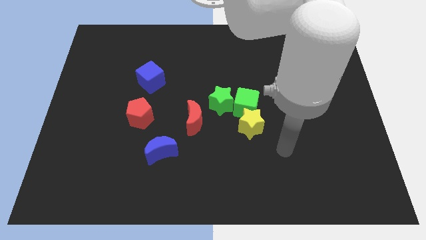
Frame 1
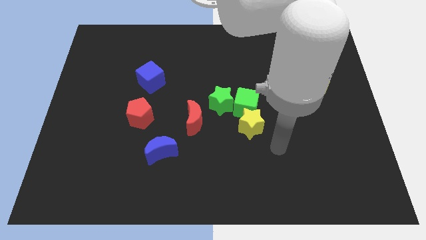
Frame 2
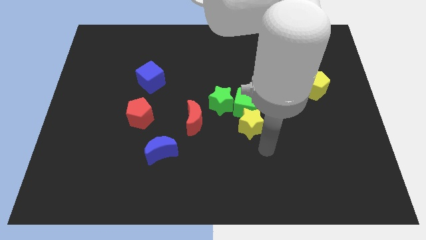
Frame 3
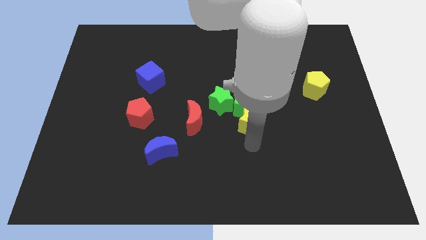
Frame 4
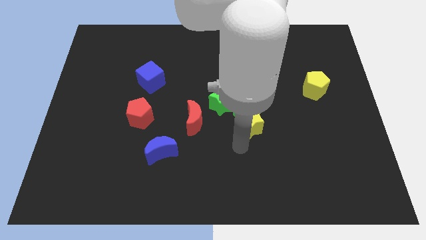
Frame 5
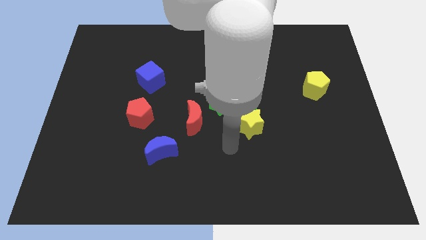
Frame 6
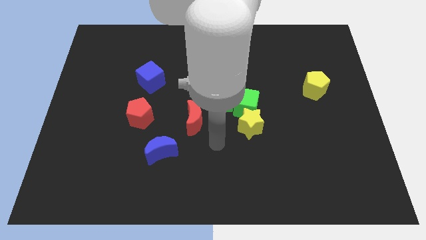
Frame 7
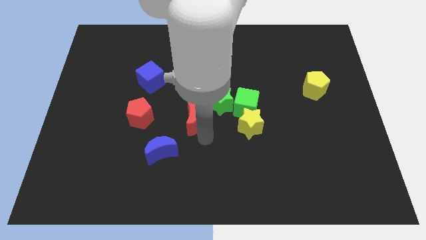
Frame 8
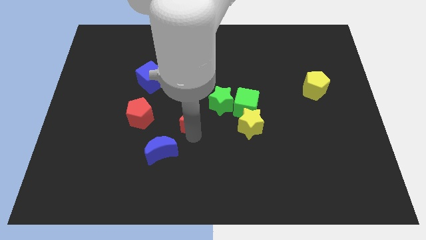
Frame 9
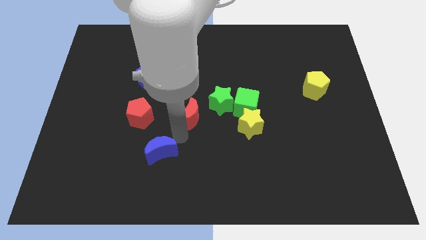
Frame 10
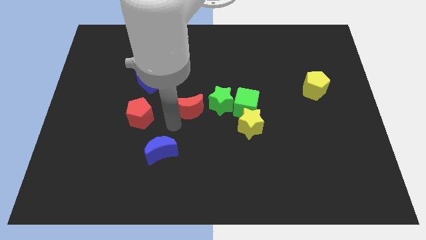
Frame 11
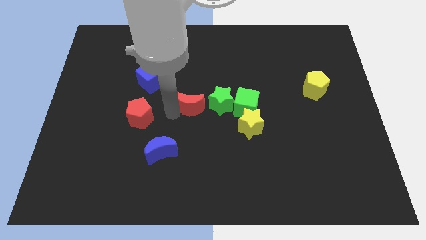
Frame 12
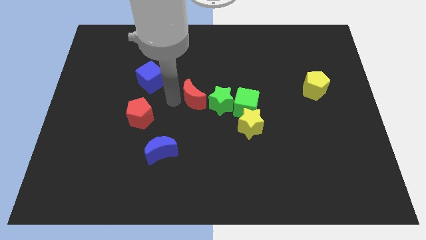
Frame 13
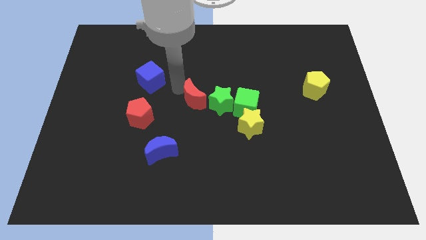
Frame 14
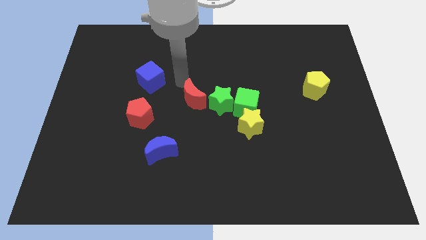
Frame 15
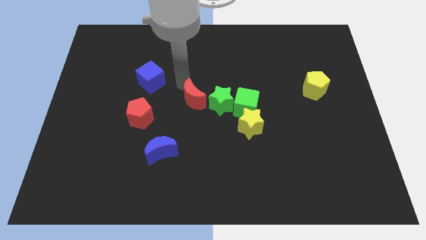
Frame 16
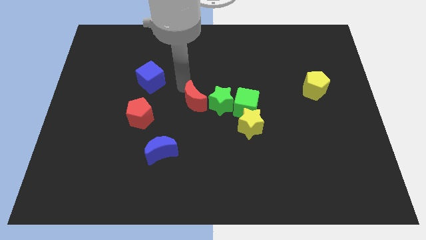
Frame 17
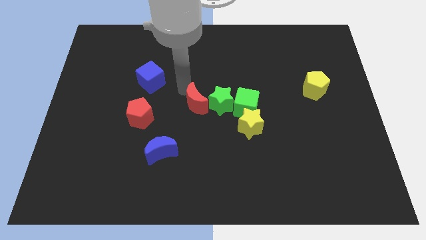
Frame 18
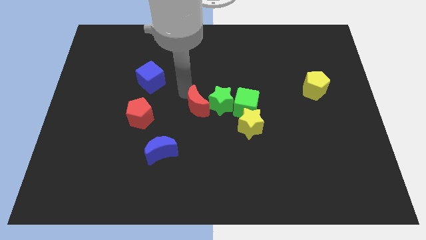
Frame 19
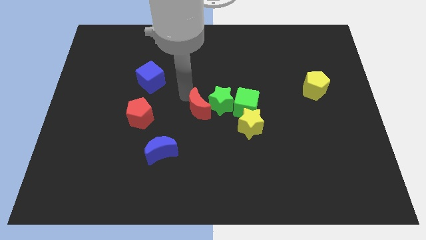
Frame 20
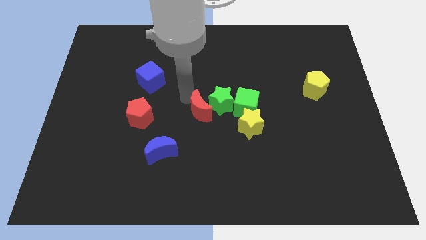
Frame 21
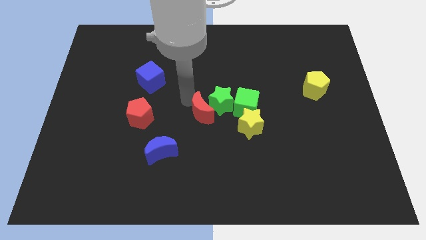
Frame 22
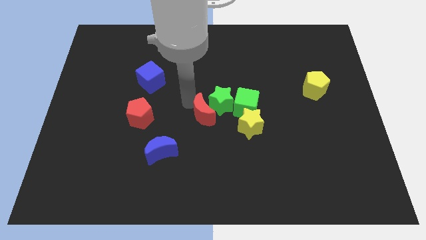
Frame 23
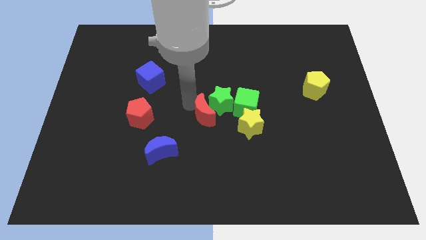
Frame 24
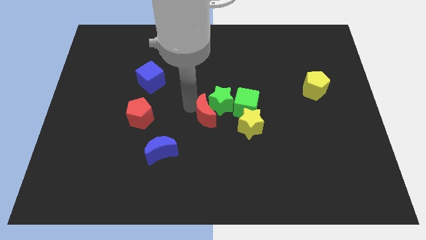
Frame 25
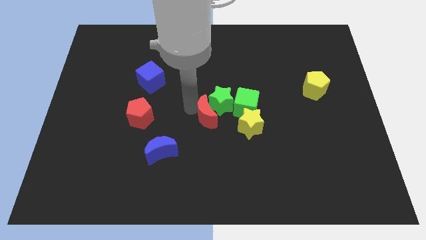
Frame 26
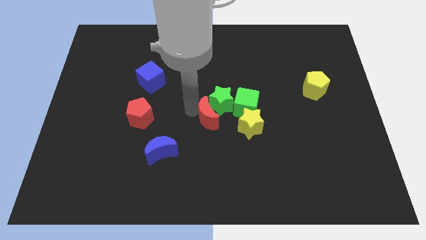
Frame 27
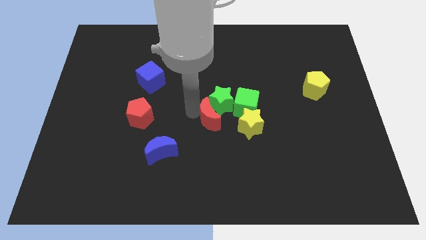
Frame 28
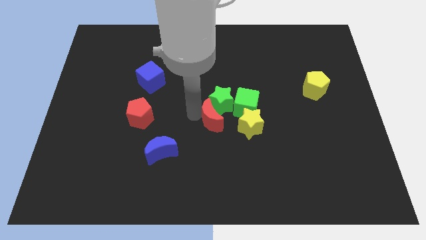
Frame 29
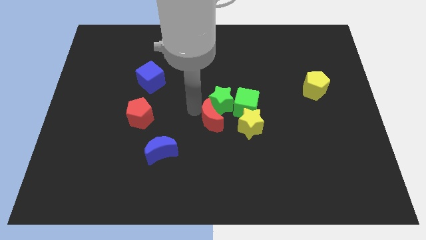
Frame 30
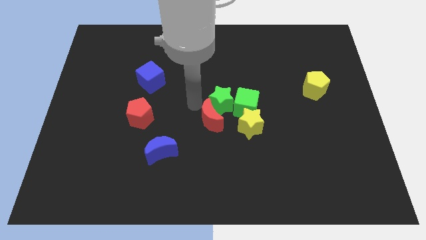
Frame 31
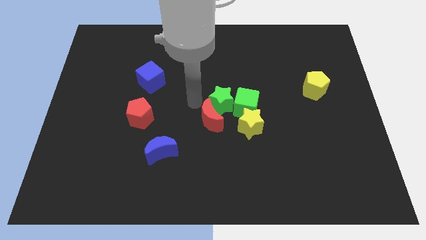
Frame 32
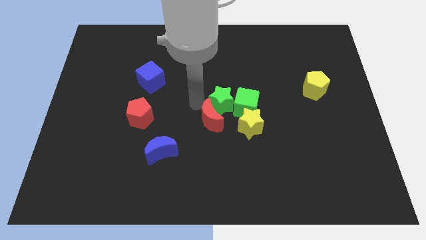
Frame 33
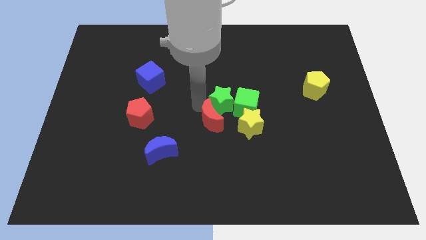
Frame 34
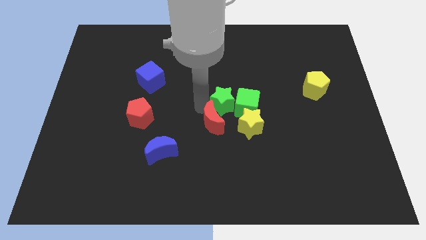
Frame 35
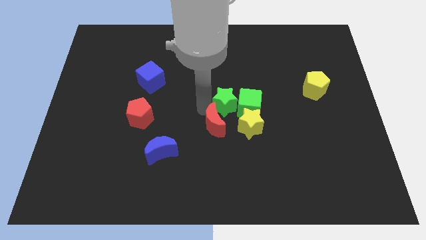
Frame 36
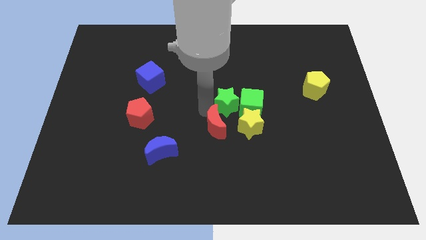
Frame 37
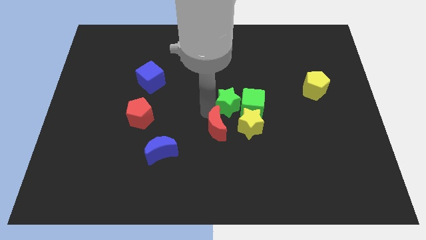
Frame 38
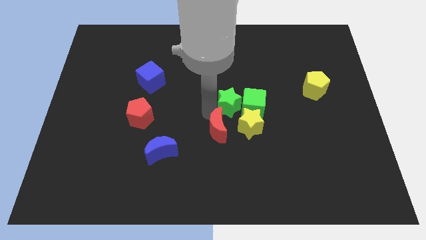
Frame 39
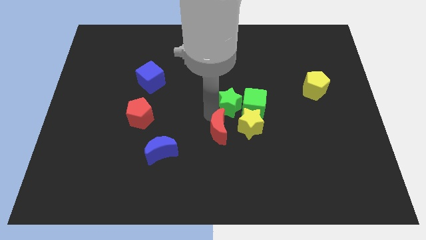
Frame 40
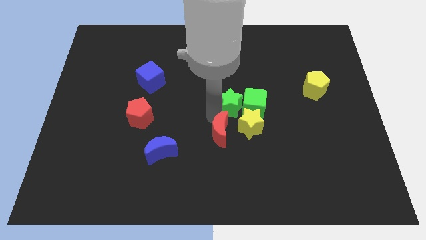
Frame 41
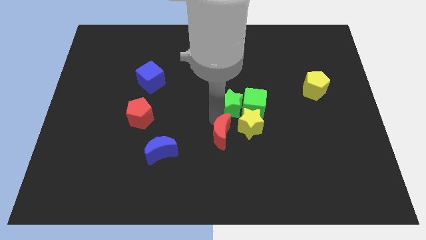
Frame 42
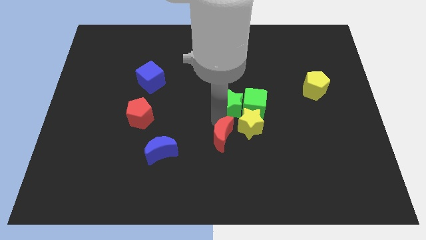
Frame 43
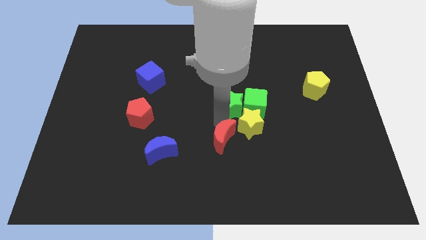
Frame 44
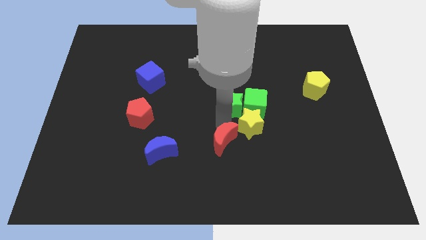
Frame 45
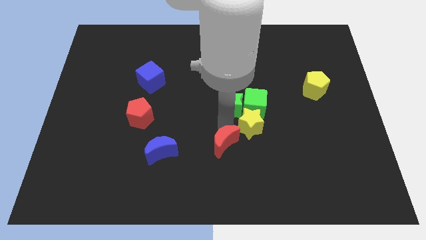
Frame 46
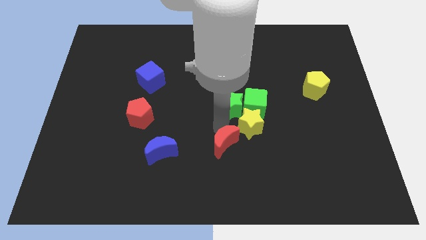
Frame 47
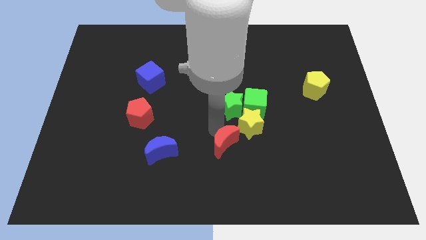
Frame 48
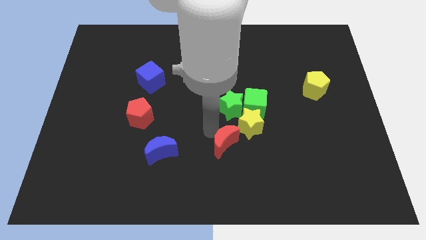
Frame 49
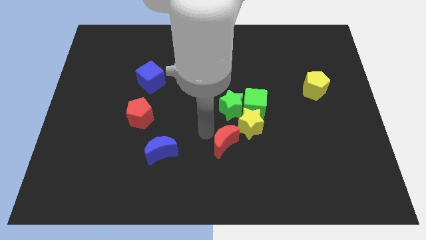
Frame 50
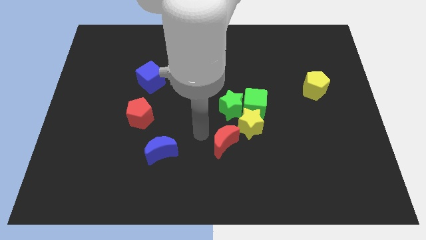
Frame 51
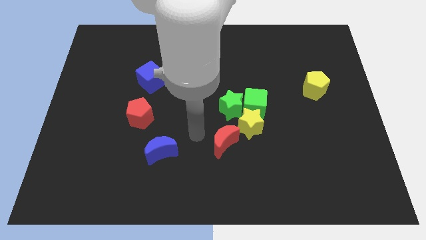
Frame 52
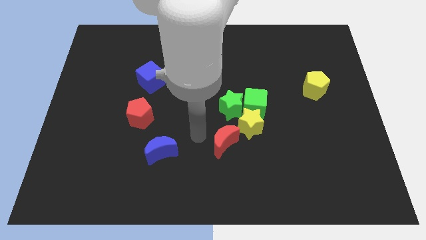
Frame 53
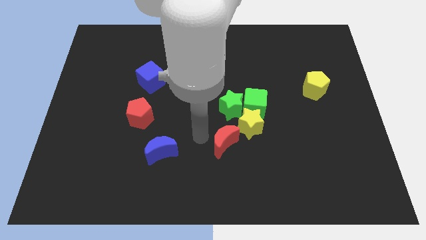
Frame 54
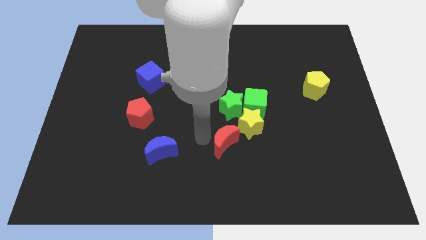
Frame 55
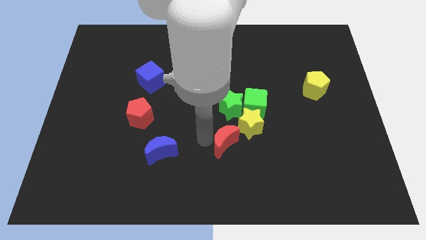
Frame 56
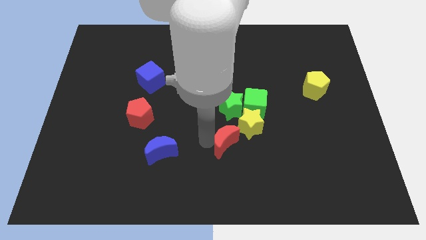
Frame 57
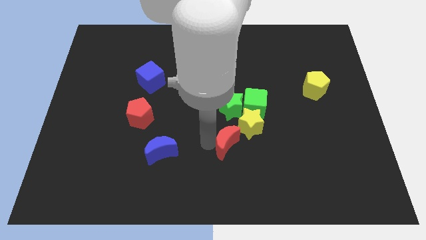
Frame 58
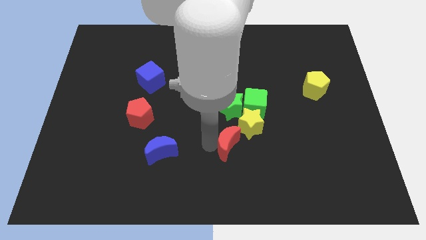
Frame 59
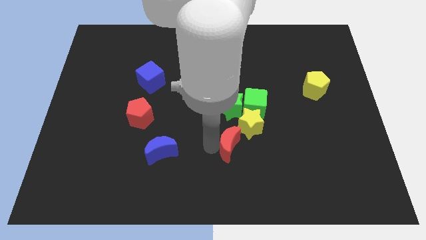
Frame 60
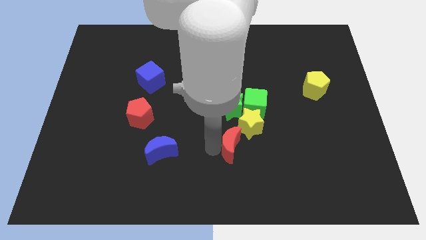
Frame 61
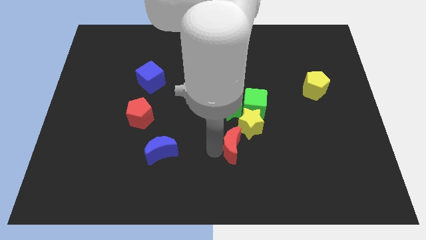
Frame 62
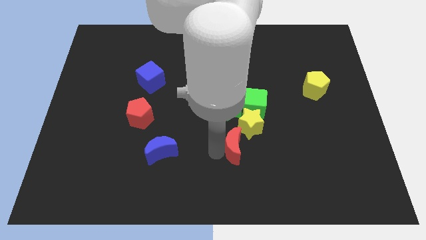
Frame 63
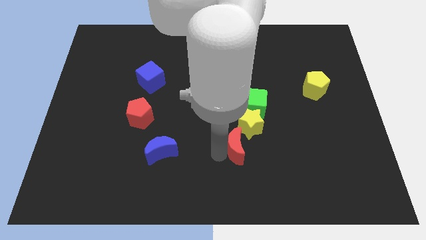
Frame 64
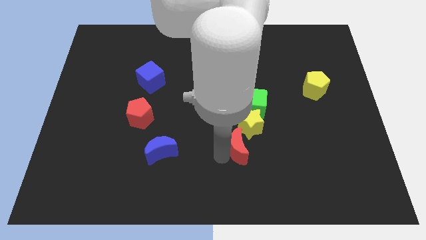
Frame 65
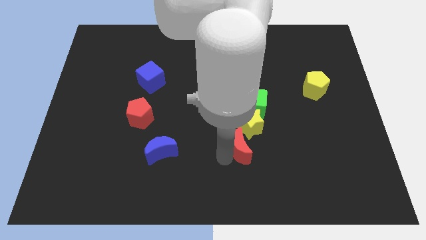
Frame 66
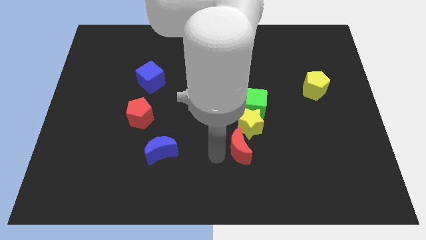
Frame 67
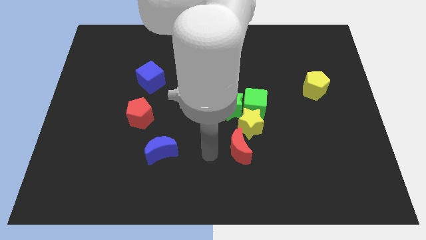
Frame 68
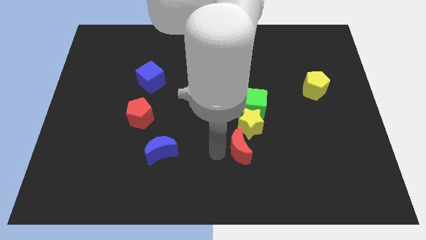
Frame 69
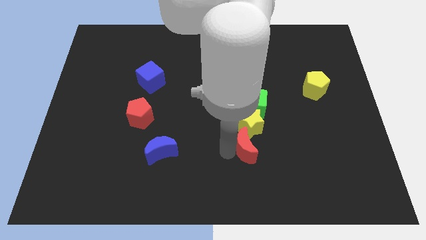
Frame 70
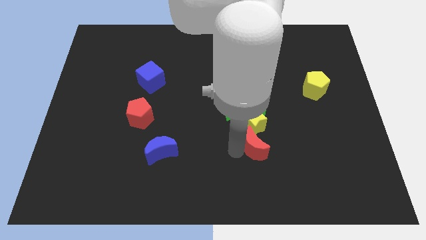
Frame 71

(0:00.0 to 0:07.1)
move the red moon to the bottom right of the yellow star
